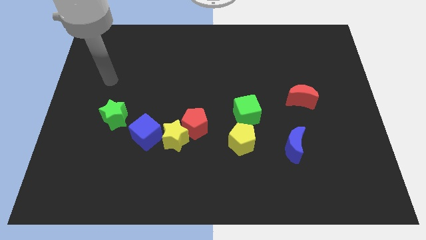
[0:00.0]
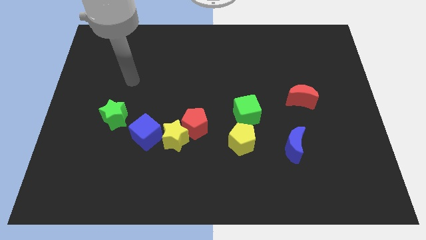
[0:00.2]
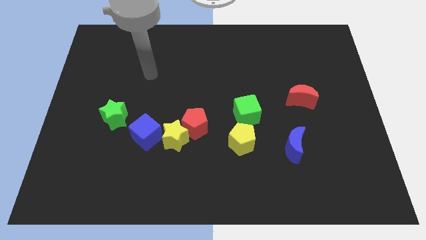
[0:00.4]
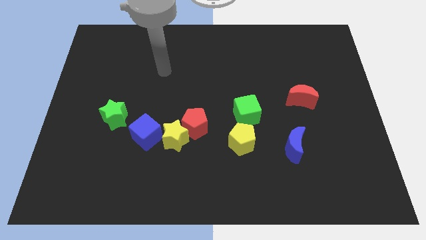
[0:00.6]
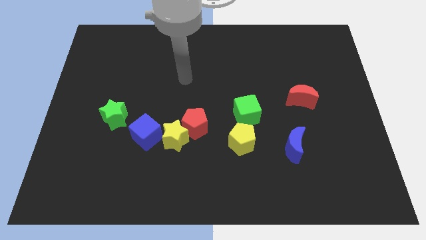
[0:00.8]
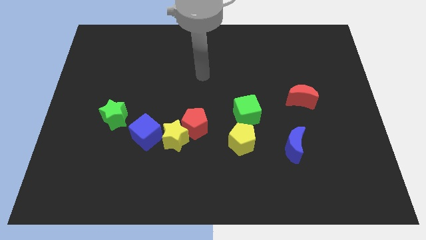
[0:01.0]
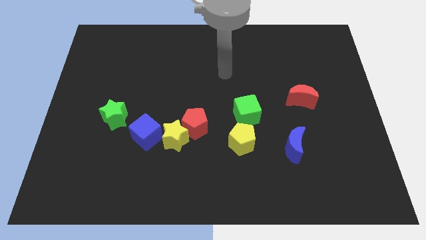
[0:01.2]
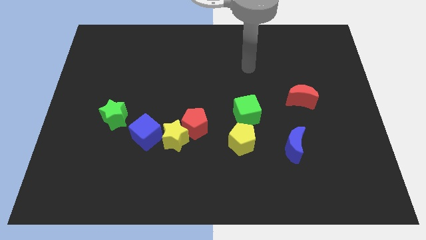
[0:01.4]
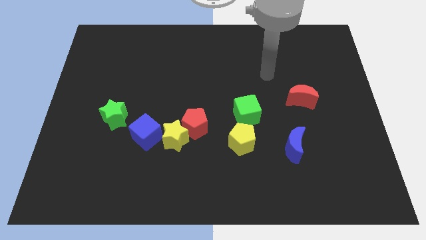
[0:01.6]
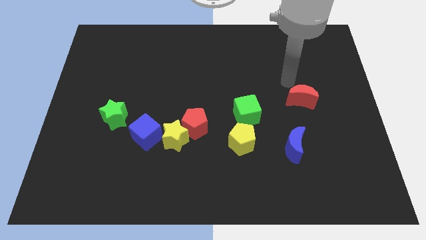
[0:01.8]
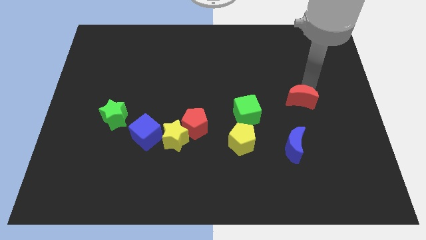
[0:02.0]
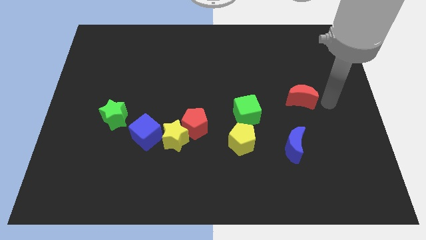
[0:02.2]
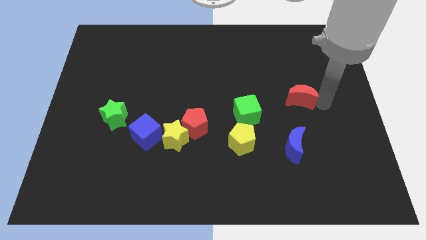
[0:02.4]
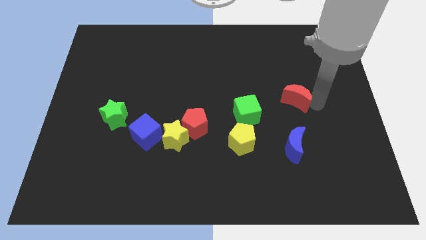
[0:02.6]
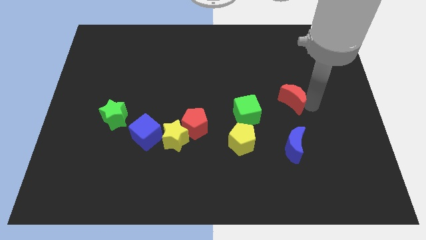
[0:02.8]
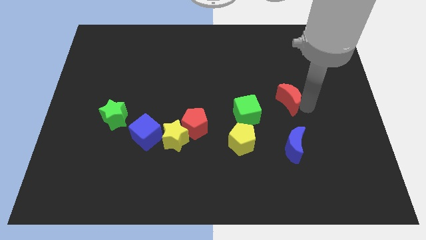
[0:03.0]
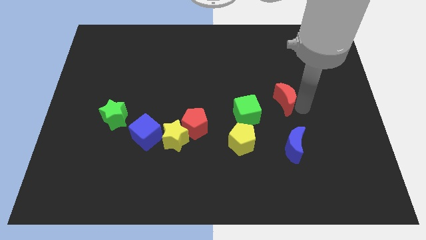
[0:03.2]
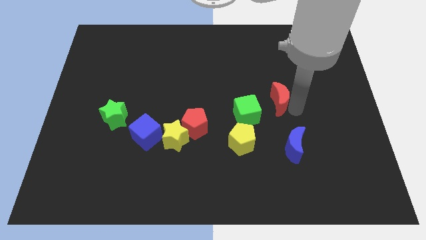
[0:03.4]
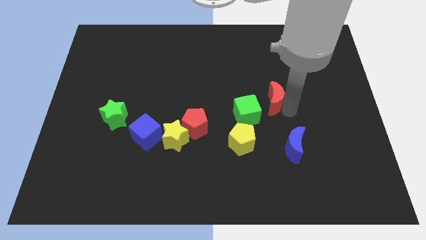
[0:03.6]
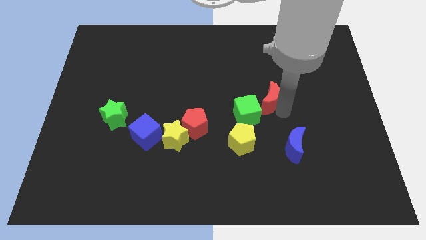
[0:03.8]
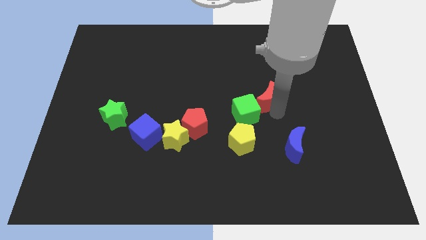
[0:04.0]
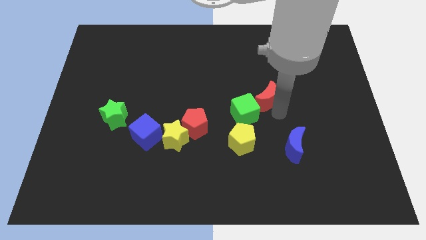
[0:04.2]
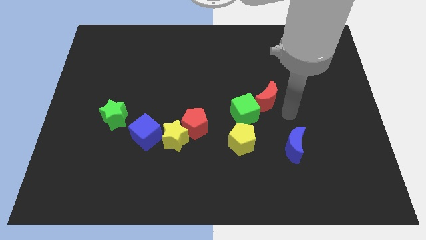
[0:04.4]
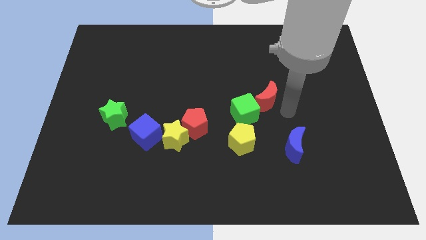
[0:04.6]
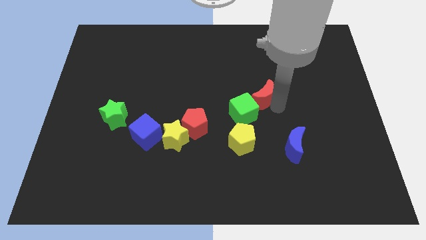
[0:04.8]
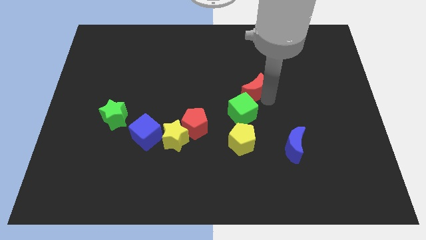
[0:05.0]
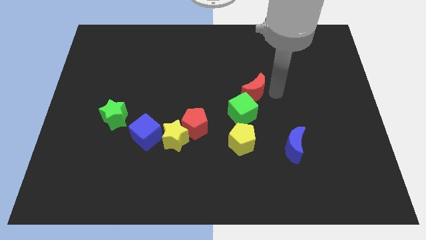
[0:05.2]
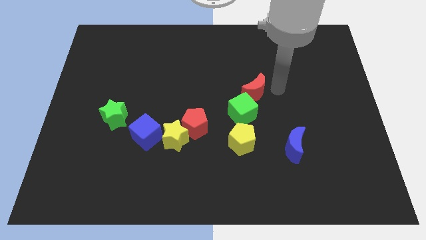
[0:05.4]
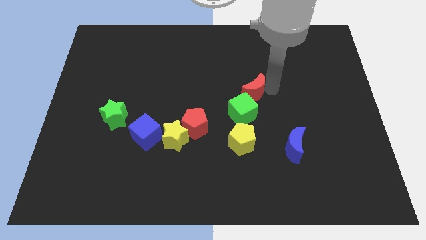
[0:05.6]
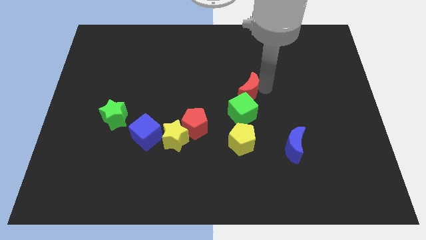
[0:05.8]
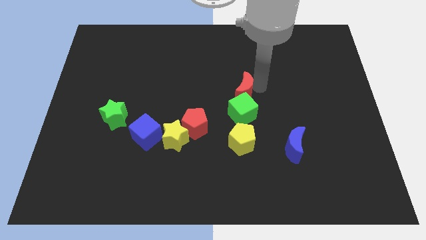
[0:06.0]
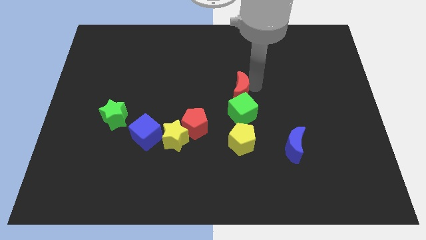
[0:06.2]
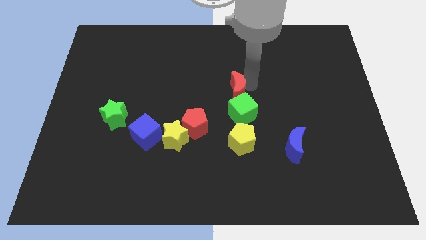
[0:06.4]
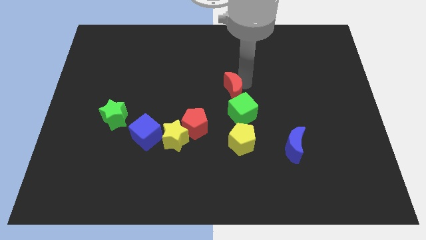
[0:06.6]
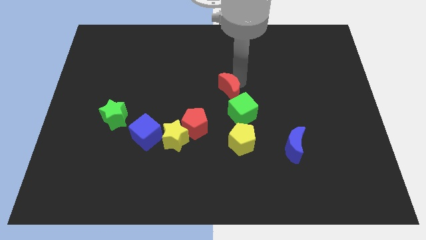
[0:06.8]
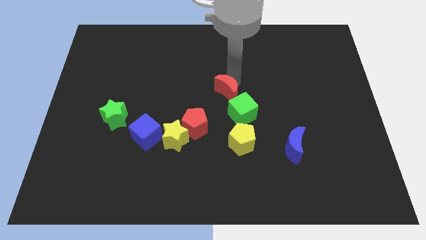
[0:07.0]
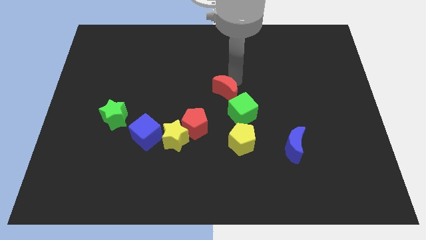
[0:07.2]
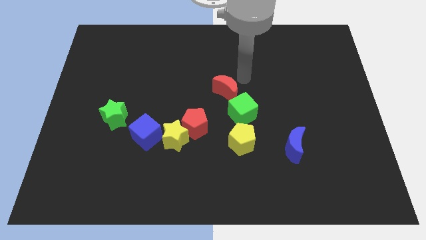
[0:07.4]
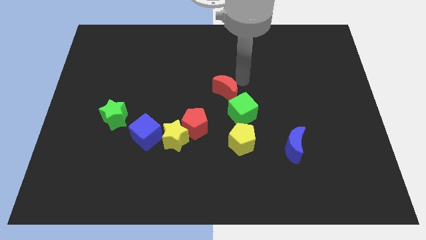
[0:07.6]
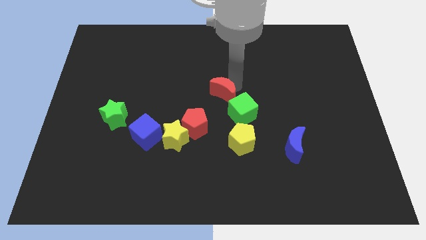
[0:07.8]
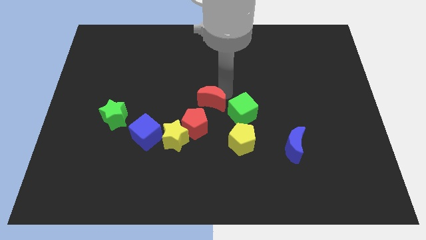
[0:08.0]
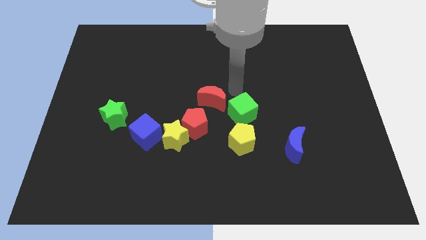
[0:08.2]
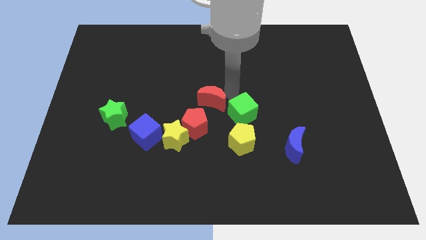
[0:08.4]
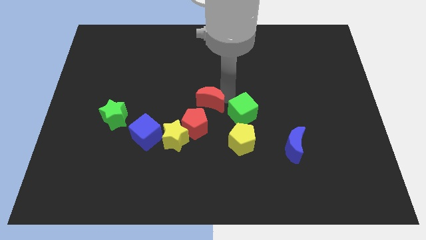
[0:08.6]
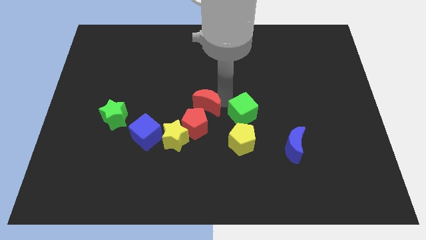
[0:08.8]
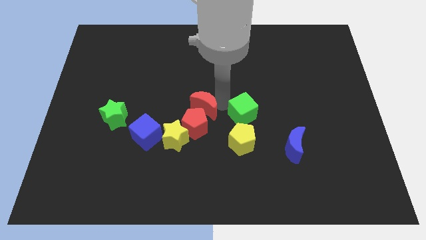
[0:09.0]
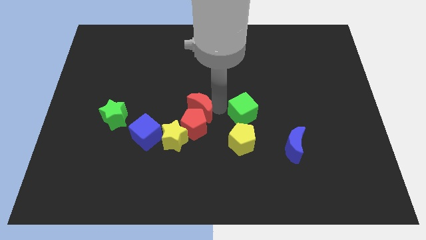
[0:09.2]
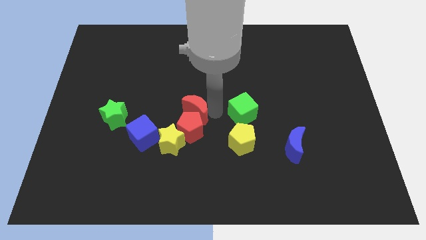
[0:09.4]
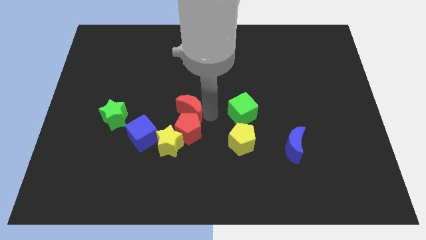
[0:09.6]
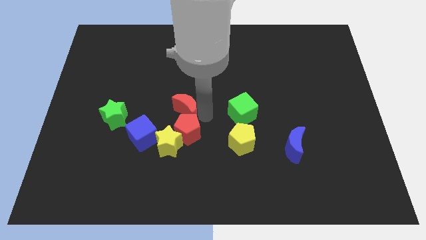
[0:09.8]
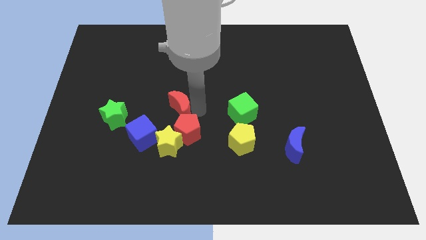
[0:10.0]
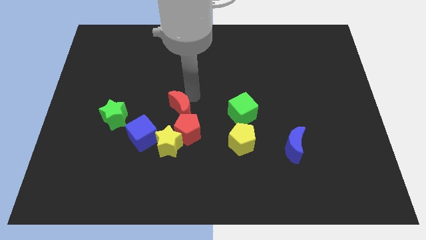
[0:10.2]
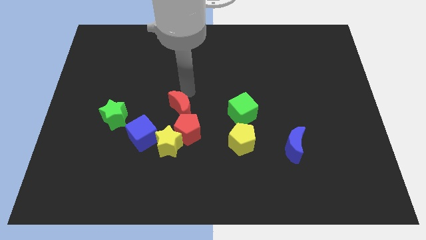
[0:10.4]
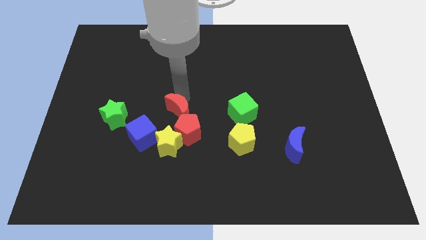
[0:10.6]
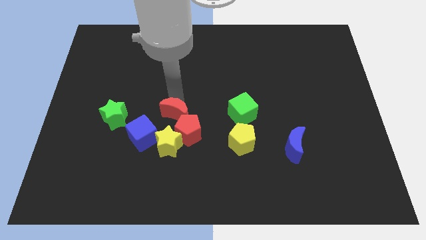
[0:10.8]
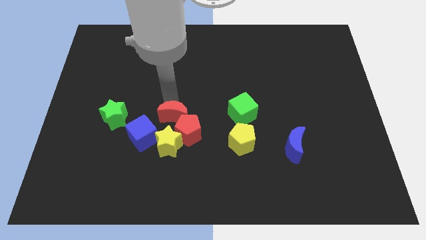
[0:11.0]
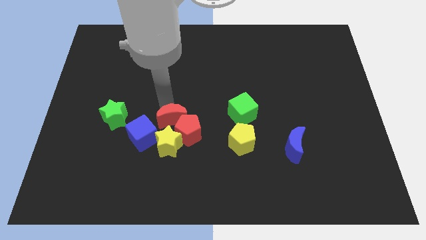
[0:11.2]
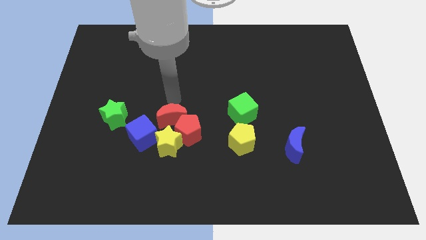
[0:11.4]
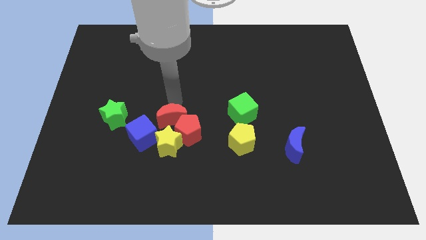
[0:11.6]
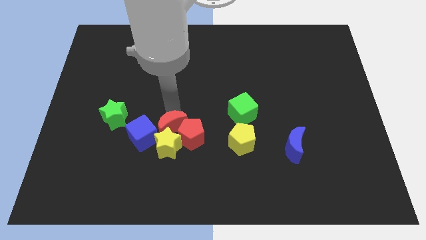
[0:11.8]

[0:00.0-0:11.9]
move the red moon towards the yellow star
